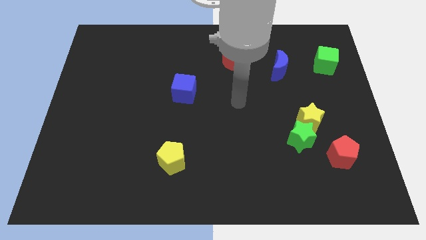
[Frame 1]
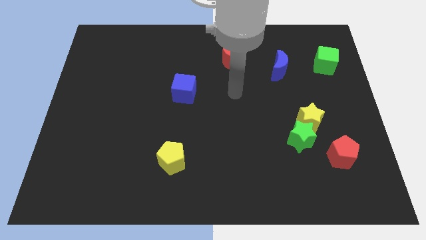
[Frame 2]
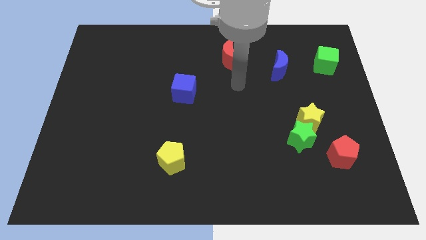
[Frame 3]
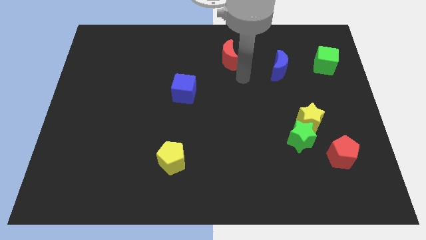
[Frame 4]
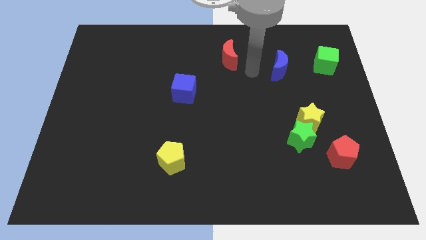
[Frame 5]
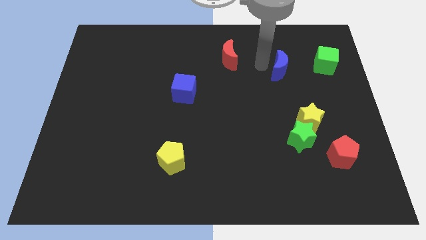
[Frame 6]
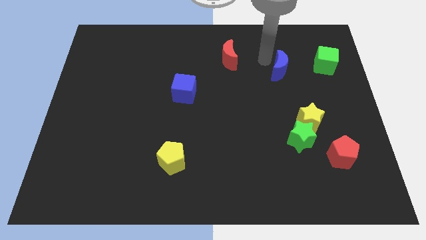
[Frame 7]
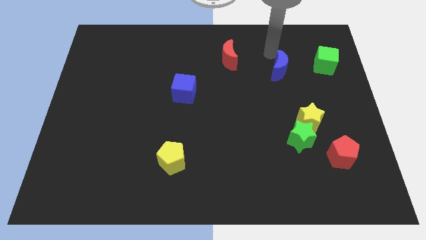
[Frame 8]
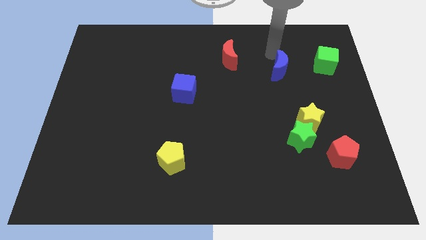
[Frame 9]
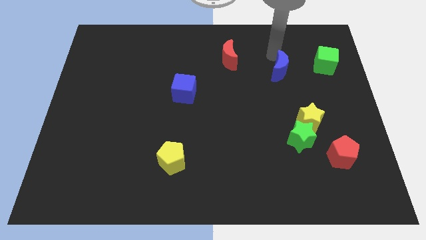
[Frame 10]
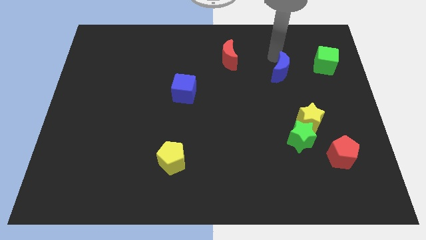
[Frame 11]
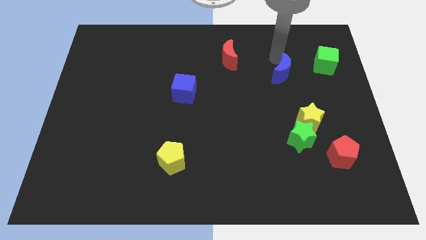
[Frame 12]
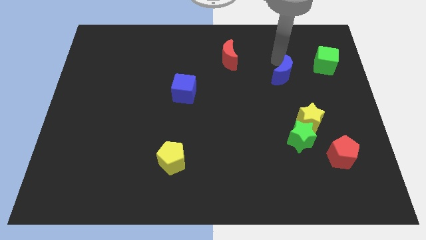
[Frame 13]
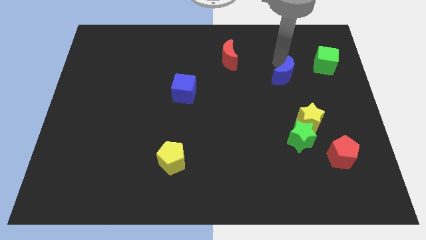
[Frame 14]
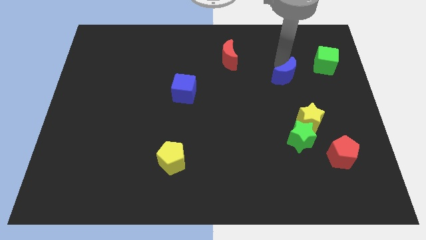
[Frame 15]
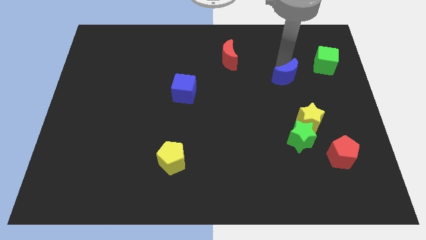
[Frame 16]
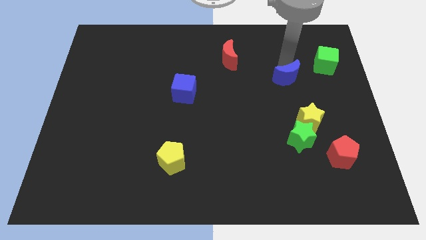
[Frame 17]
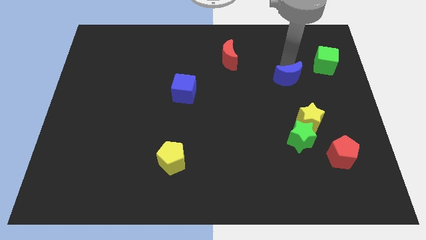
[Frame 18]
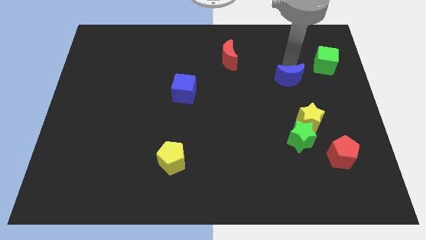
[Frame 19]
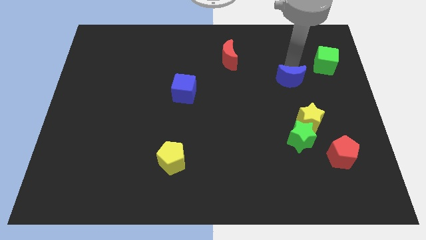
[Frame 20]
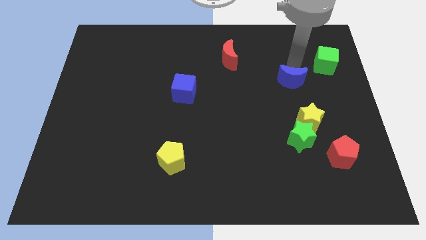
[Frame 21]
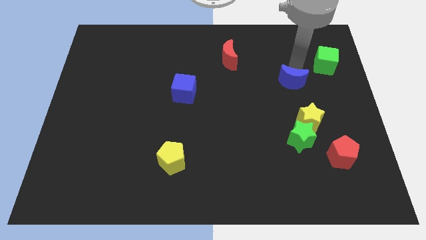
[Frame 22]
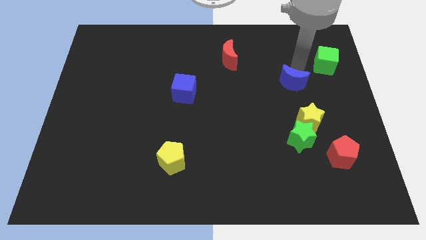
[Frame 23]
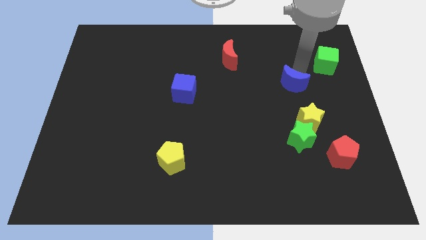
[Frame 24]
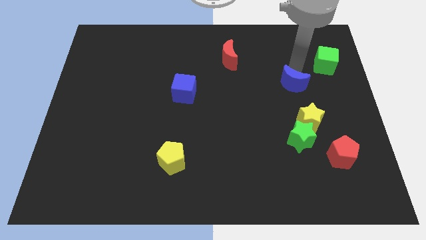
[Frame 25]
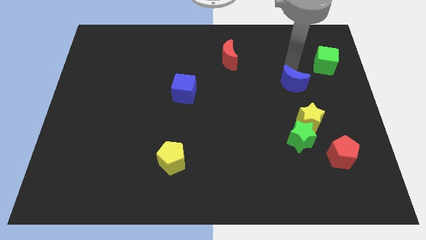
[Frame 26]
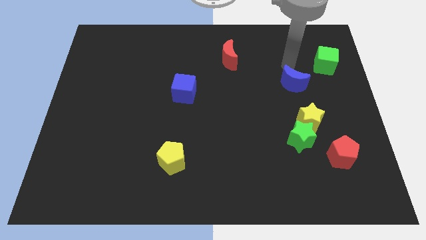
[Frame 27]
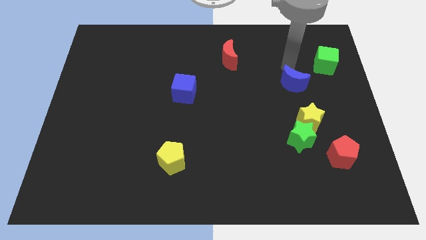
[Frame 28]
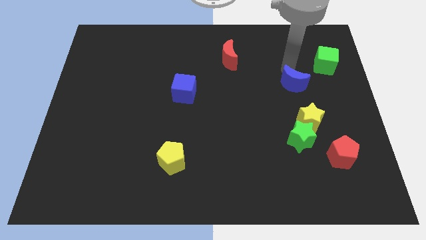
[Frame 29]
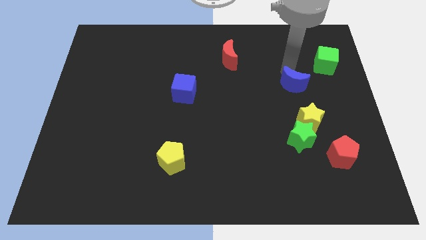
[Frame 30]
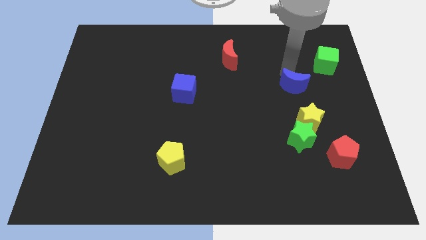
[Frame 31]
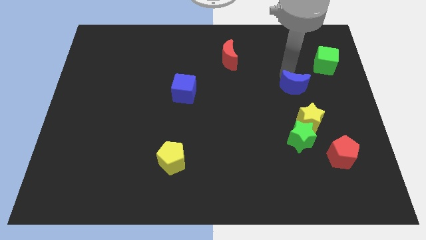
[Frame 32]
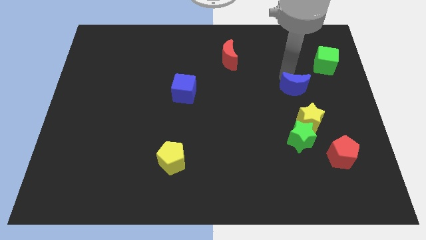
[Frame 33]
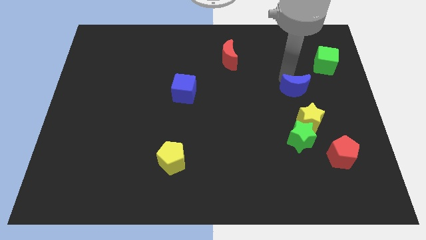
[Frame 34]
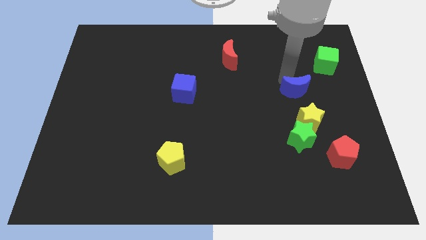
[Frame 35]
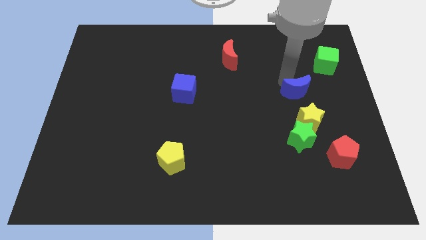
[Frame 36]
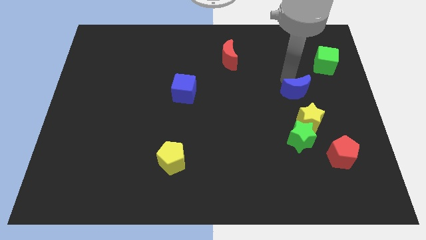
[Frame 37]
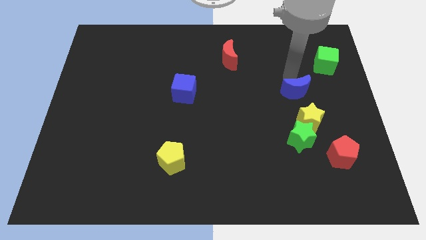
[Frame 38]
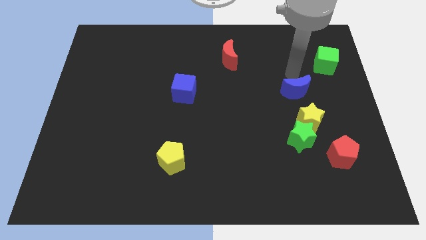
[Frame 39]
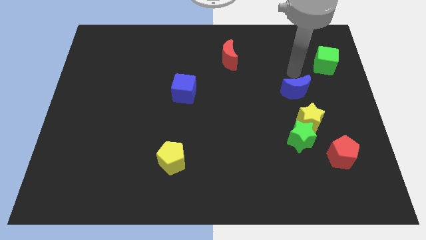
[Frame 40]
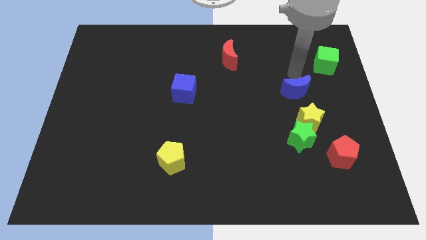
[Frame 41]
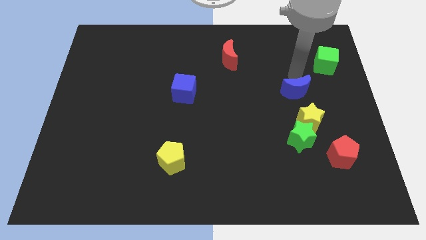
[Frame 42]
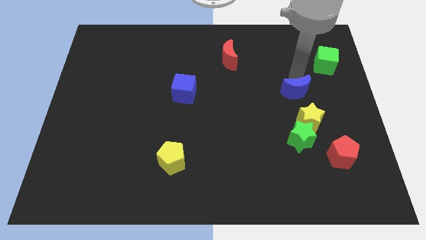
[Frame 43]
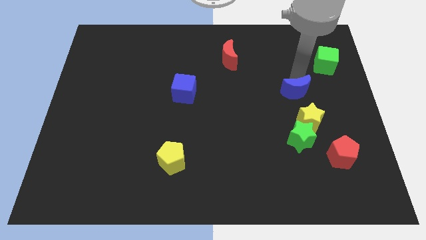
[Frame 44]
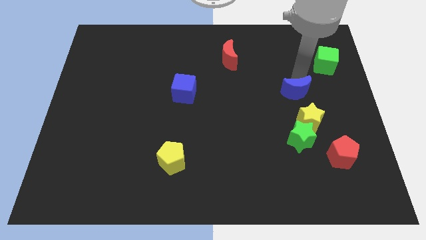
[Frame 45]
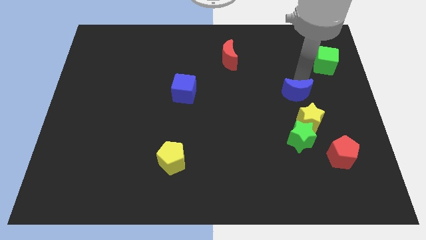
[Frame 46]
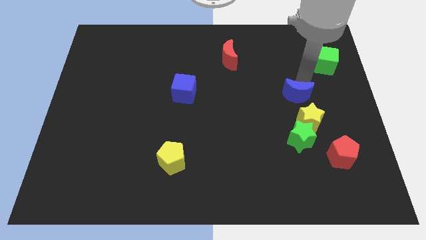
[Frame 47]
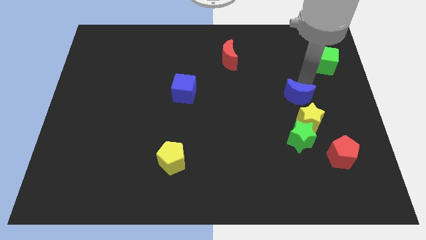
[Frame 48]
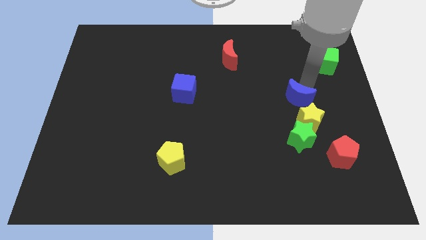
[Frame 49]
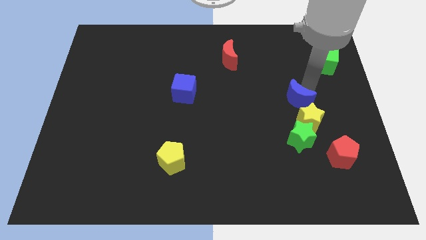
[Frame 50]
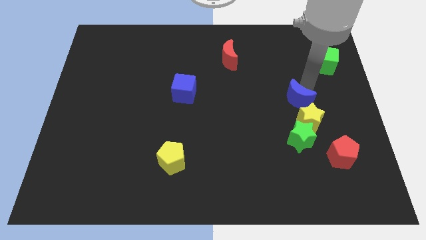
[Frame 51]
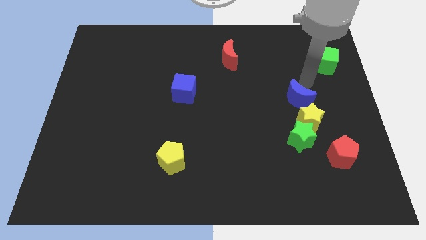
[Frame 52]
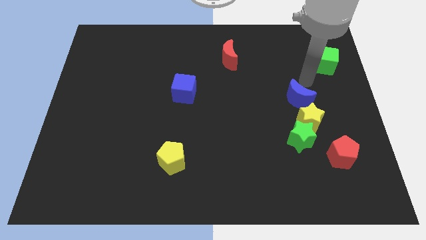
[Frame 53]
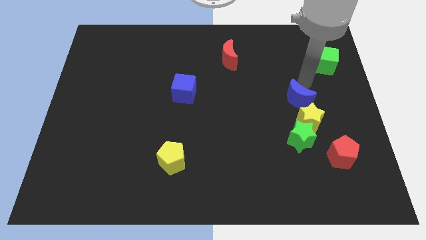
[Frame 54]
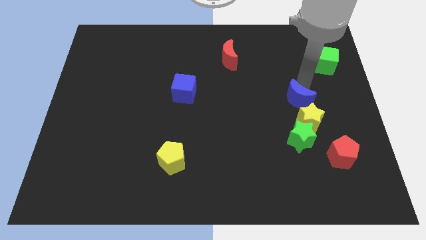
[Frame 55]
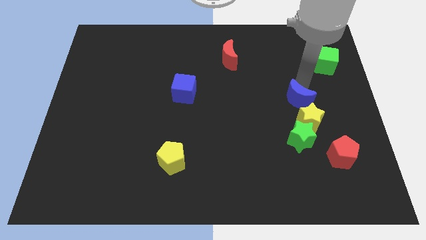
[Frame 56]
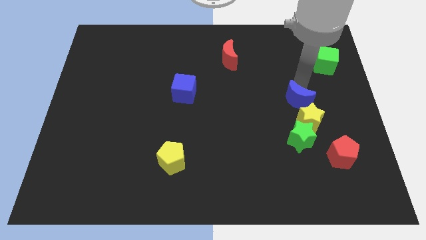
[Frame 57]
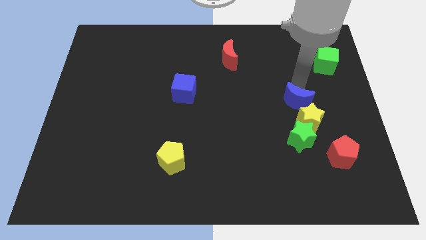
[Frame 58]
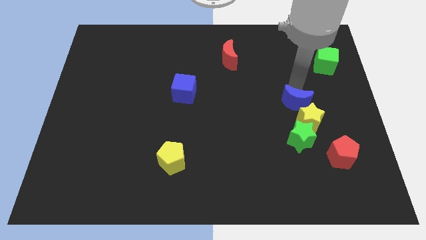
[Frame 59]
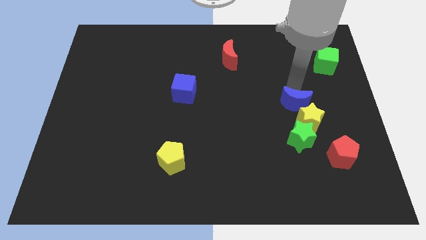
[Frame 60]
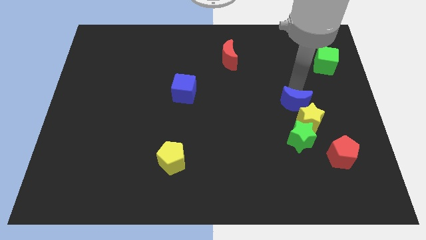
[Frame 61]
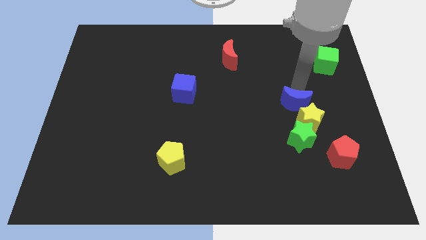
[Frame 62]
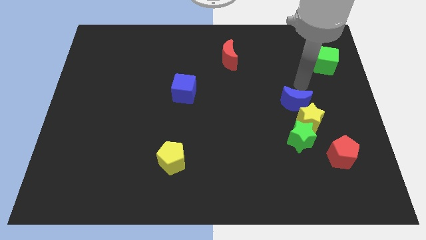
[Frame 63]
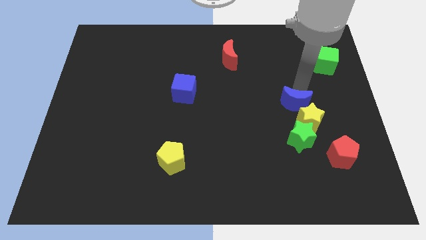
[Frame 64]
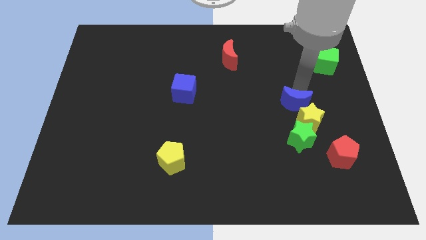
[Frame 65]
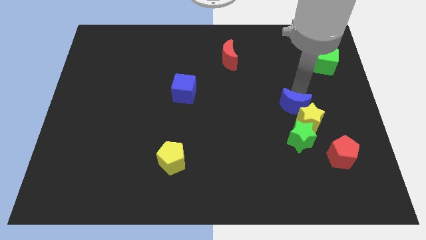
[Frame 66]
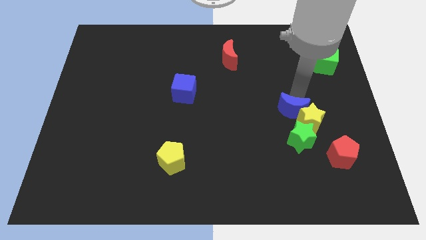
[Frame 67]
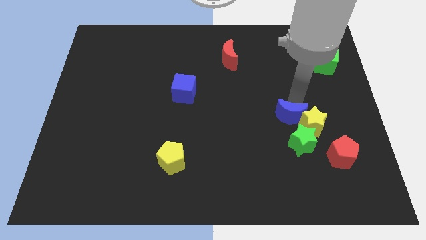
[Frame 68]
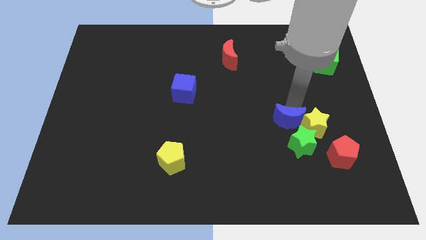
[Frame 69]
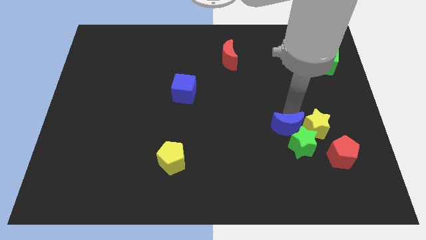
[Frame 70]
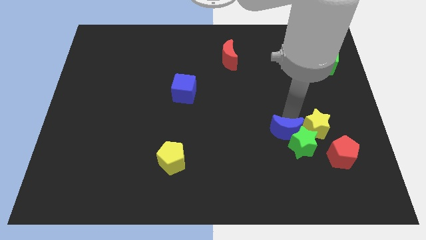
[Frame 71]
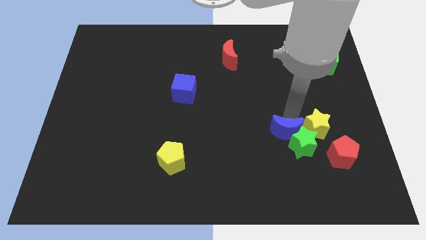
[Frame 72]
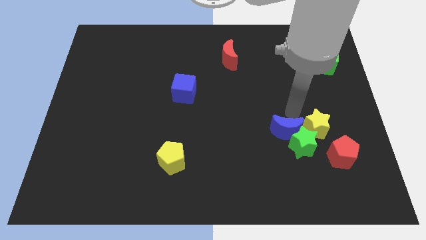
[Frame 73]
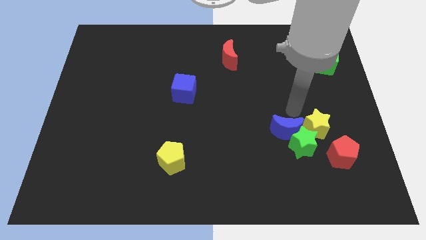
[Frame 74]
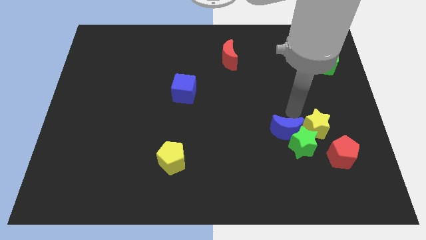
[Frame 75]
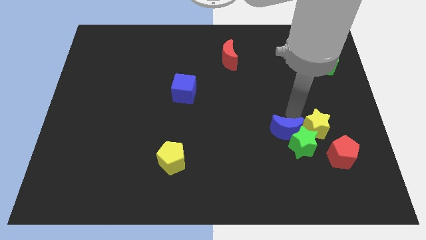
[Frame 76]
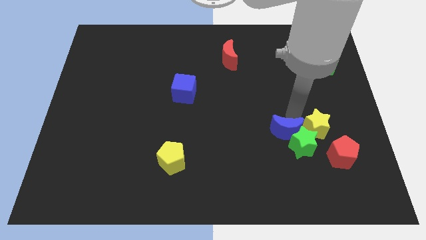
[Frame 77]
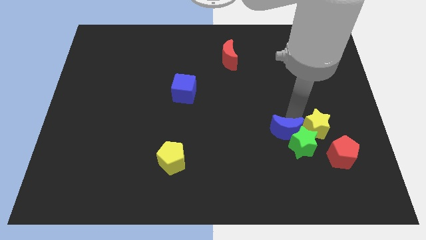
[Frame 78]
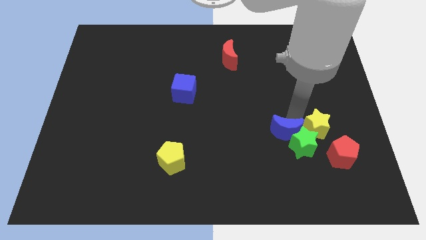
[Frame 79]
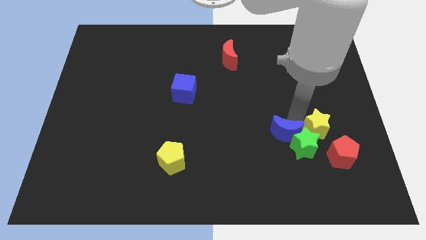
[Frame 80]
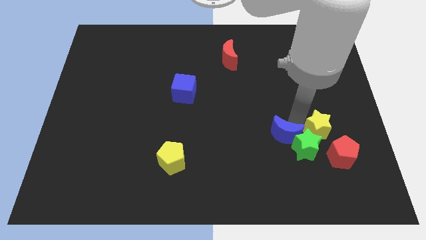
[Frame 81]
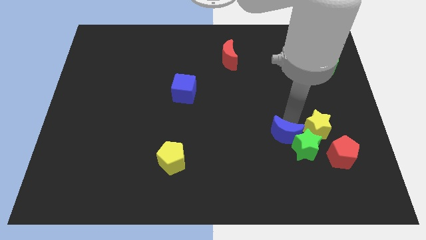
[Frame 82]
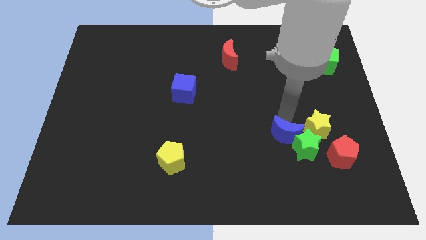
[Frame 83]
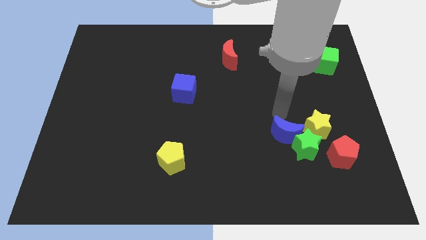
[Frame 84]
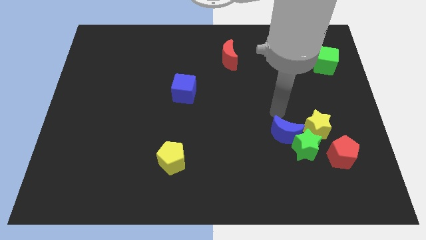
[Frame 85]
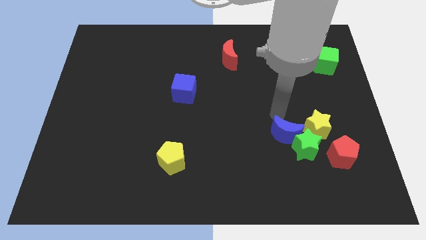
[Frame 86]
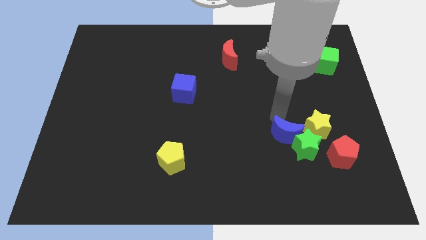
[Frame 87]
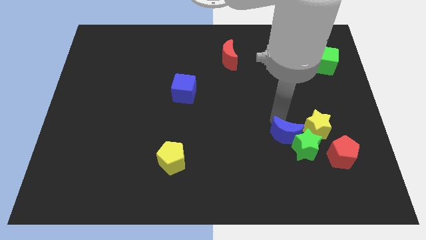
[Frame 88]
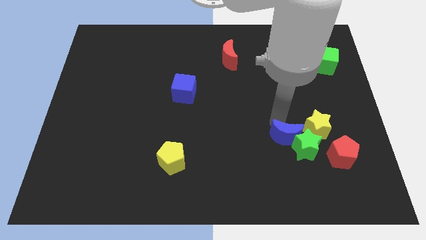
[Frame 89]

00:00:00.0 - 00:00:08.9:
slide the blue moon to the left of the red pentagon
